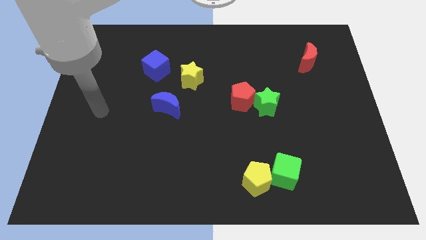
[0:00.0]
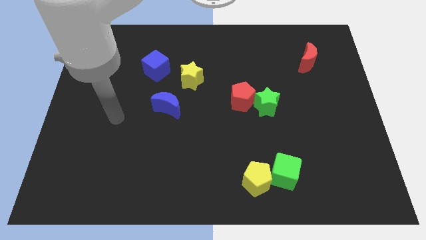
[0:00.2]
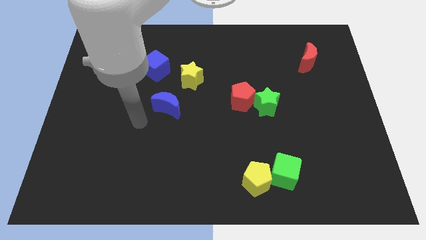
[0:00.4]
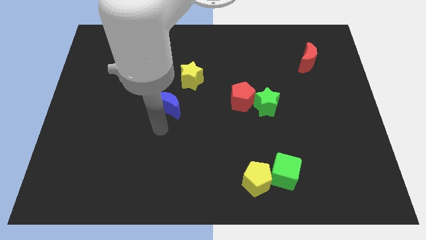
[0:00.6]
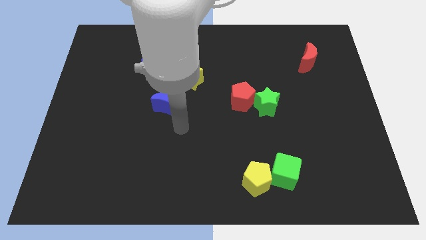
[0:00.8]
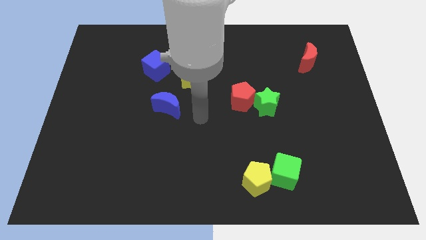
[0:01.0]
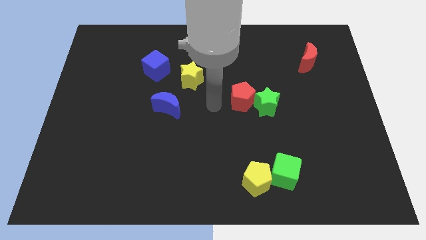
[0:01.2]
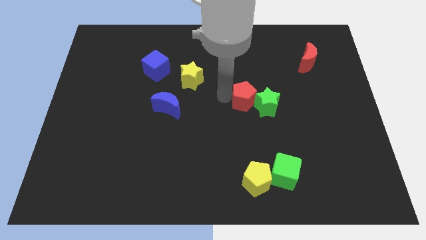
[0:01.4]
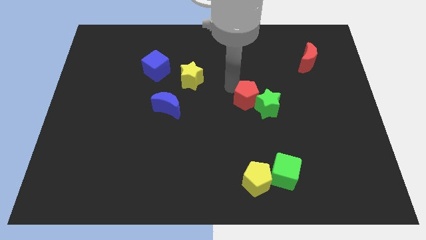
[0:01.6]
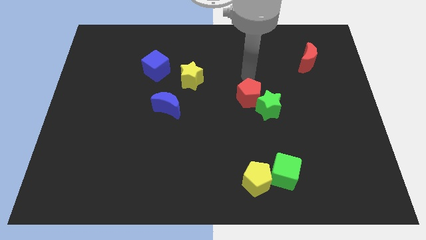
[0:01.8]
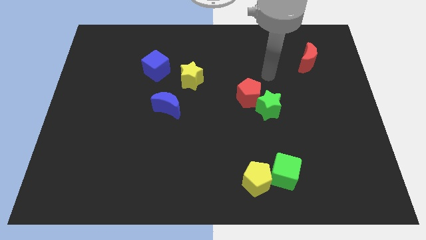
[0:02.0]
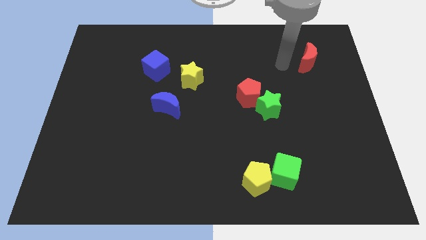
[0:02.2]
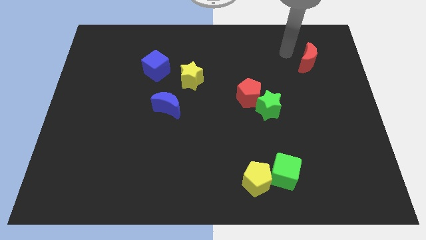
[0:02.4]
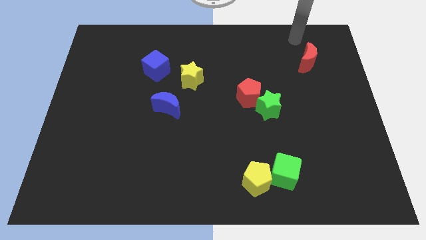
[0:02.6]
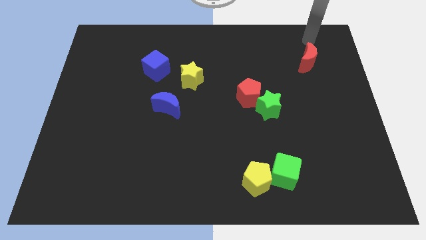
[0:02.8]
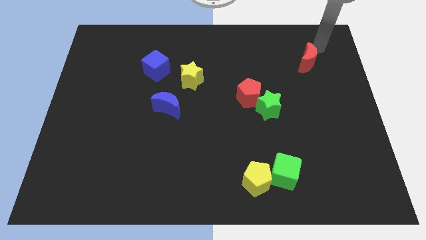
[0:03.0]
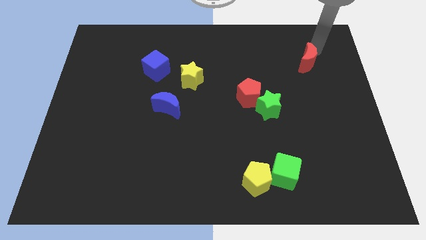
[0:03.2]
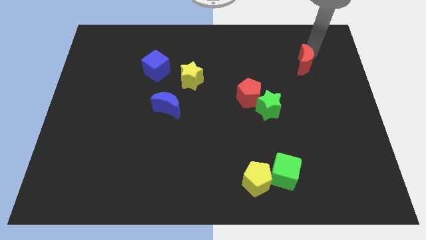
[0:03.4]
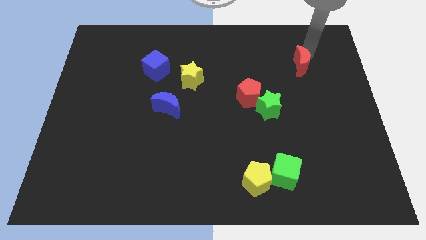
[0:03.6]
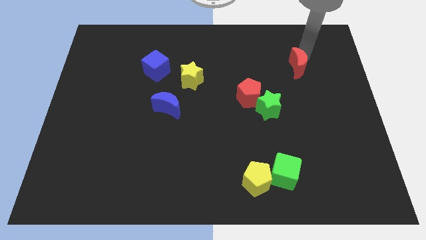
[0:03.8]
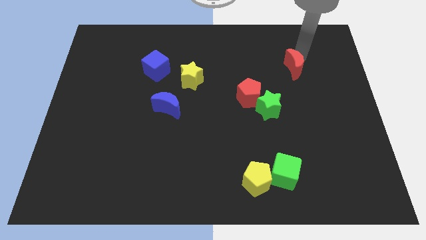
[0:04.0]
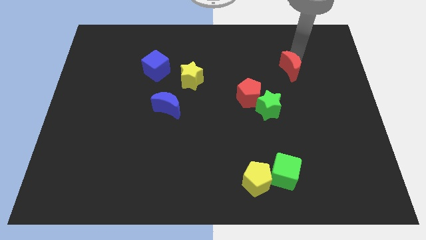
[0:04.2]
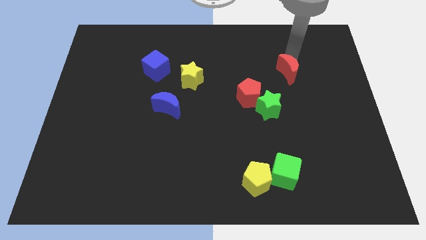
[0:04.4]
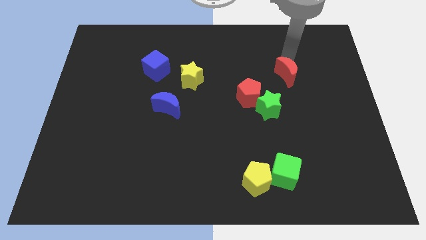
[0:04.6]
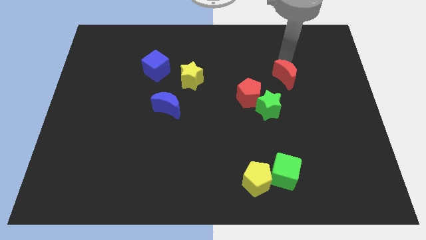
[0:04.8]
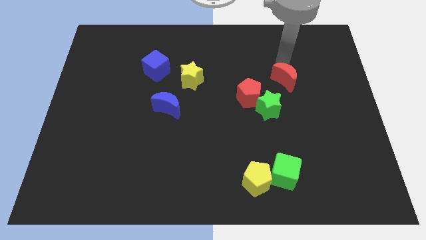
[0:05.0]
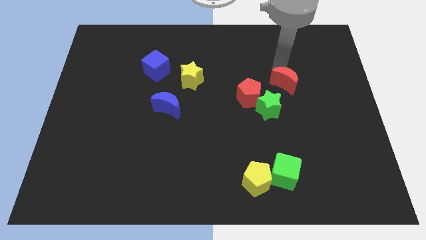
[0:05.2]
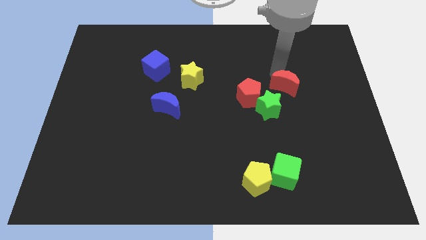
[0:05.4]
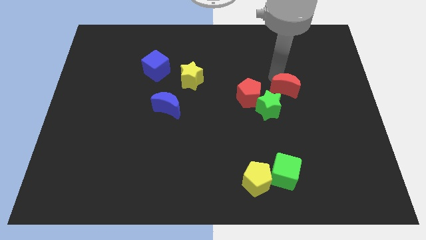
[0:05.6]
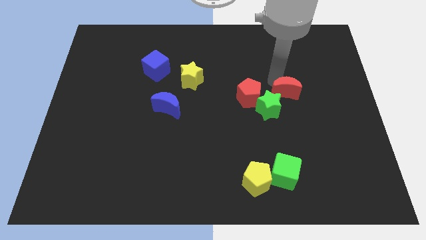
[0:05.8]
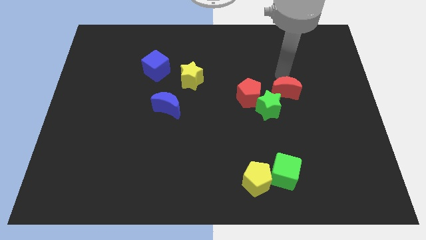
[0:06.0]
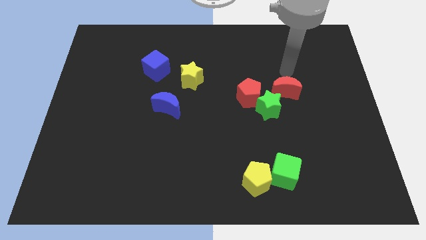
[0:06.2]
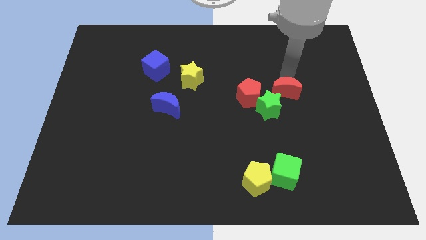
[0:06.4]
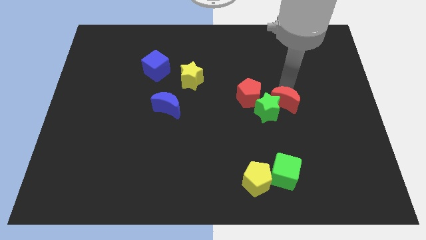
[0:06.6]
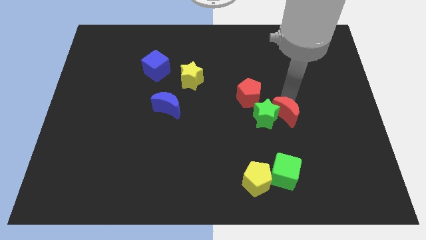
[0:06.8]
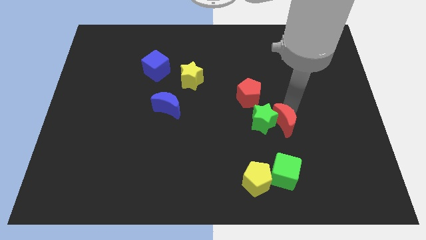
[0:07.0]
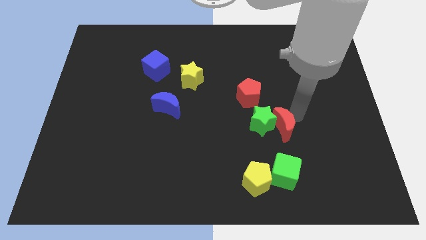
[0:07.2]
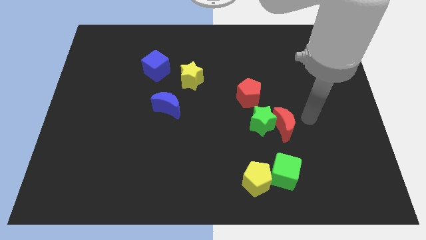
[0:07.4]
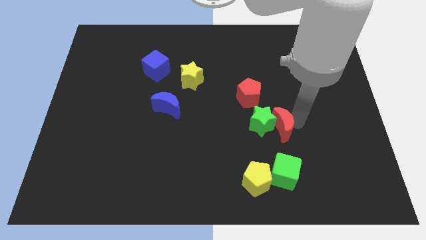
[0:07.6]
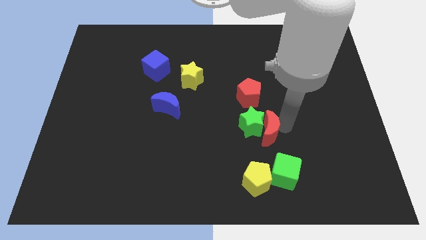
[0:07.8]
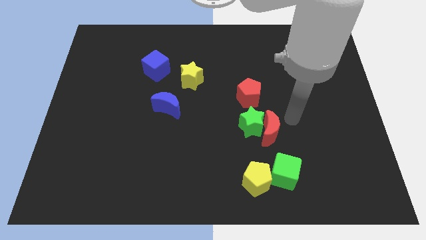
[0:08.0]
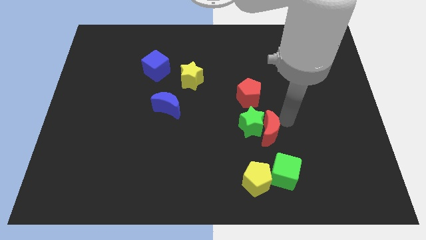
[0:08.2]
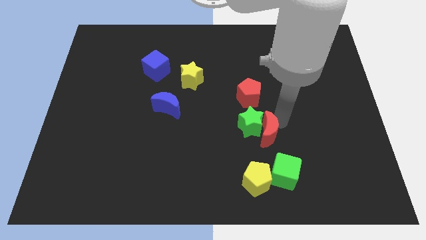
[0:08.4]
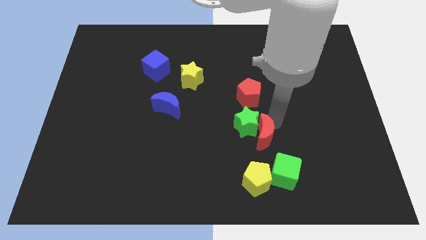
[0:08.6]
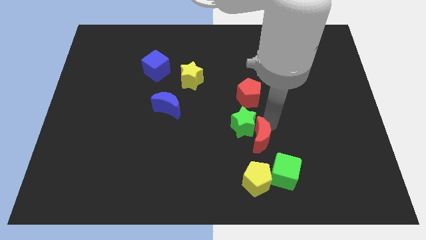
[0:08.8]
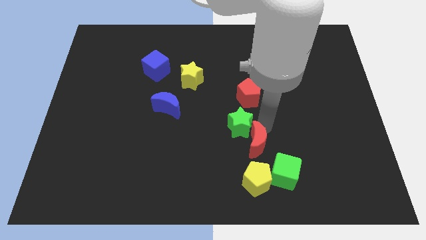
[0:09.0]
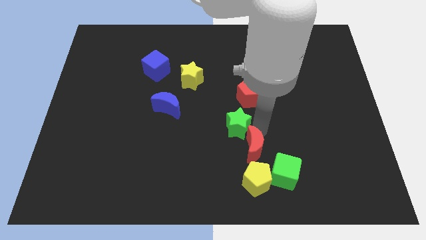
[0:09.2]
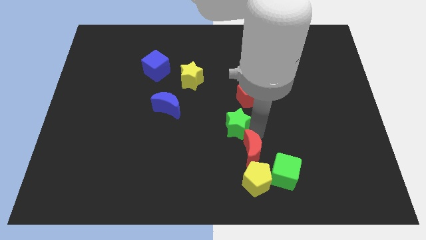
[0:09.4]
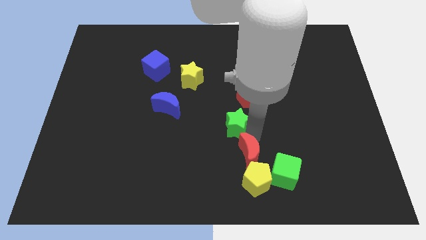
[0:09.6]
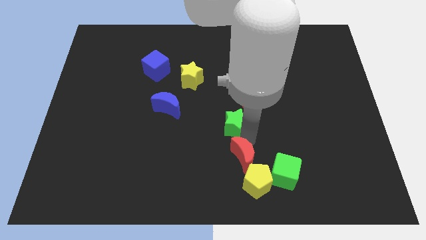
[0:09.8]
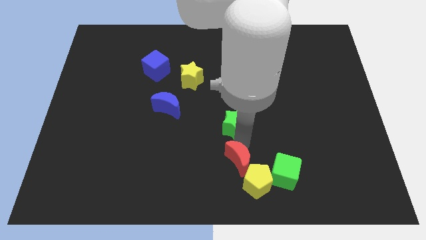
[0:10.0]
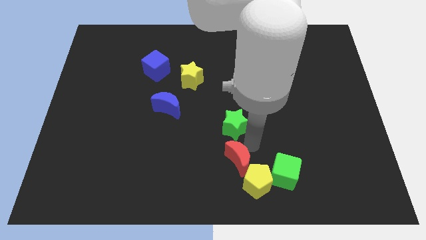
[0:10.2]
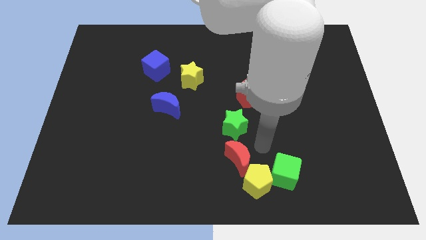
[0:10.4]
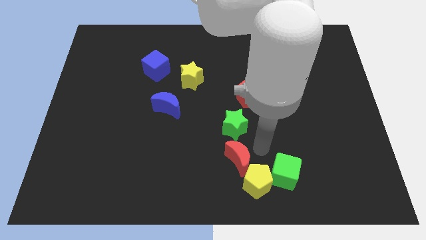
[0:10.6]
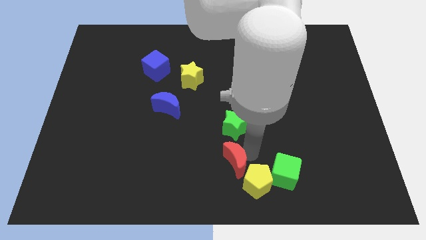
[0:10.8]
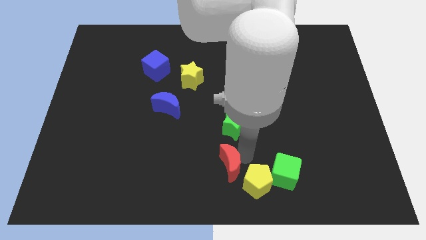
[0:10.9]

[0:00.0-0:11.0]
push the red moon left of the yellow pentagon
